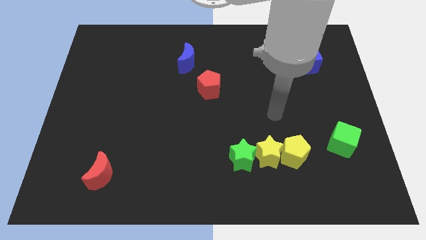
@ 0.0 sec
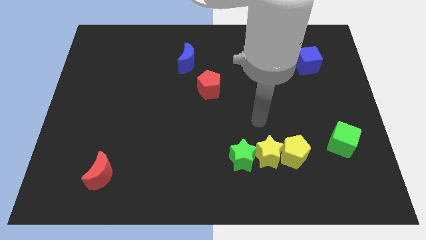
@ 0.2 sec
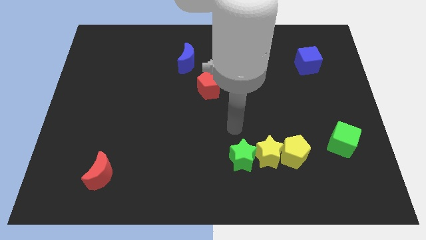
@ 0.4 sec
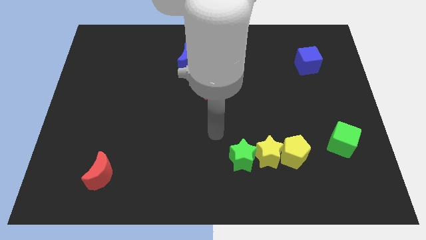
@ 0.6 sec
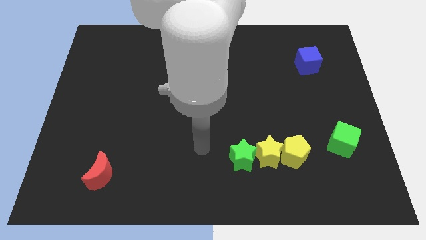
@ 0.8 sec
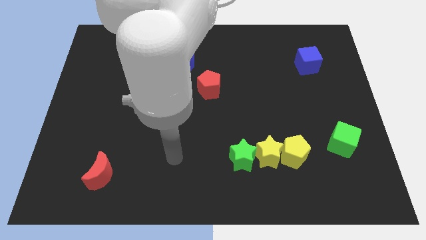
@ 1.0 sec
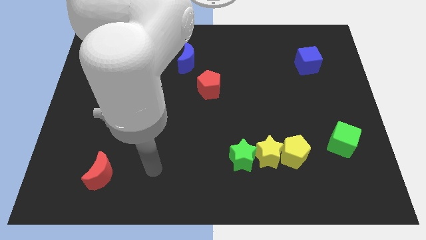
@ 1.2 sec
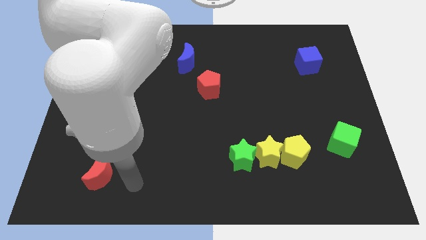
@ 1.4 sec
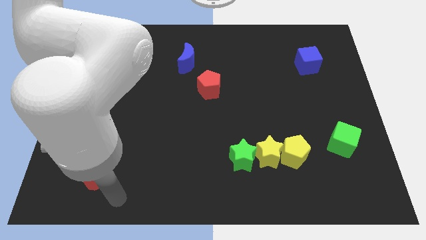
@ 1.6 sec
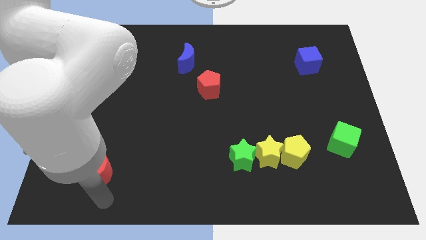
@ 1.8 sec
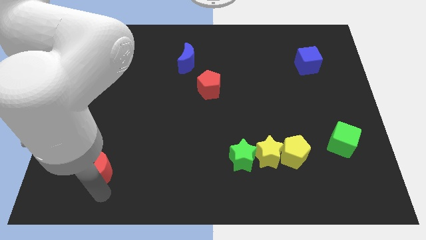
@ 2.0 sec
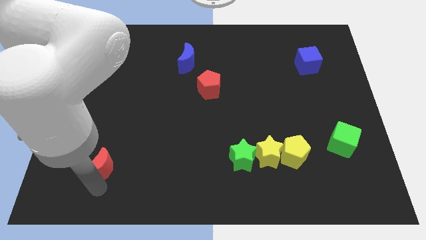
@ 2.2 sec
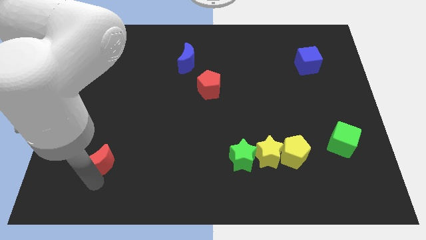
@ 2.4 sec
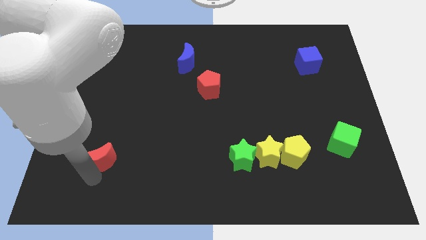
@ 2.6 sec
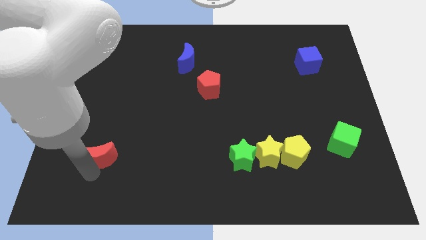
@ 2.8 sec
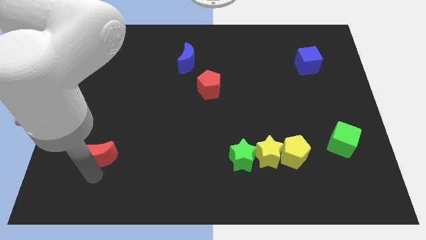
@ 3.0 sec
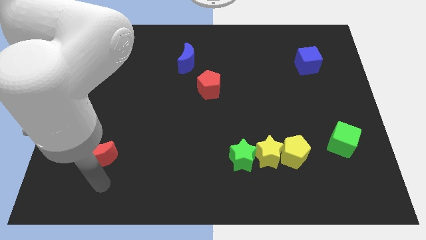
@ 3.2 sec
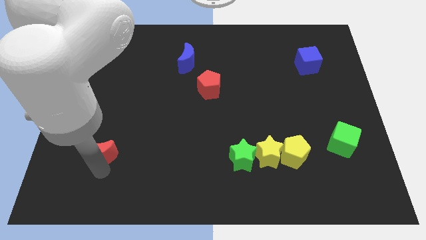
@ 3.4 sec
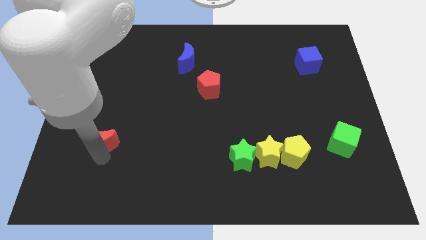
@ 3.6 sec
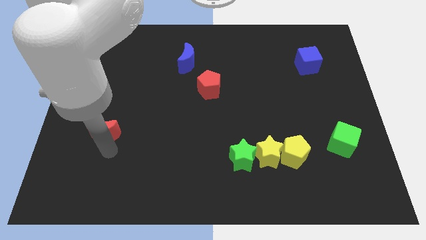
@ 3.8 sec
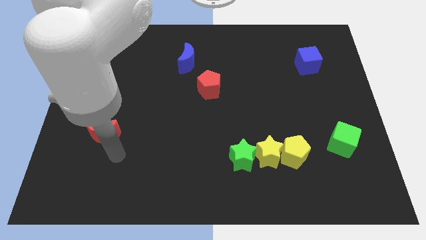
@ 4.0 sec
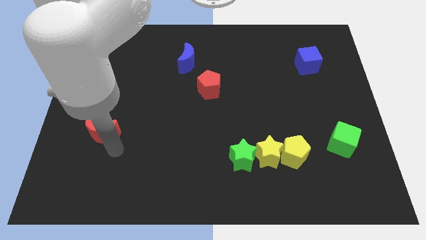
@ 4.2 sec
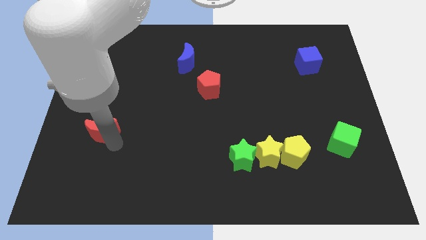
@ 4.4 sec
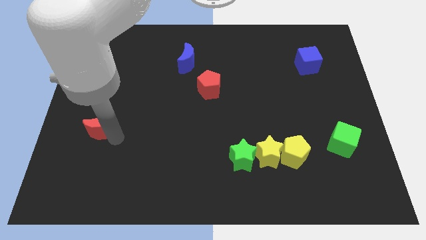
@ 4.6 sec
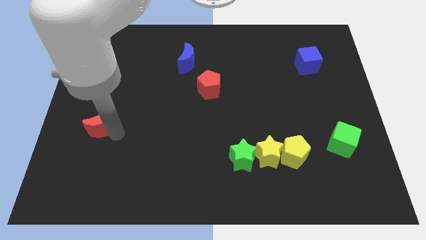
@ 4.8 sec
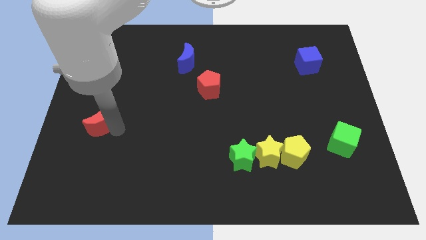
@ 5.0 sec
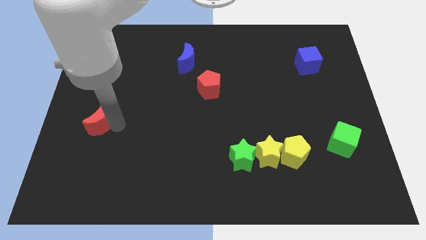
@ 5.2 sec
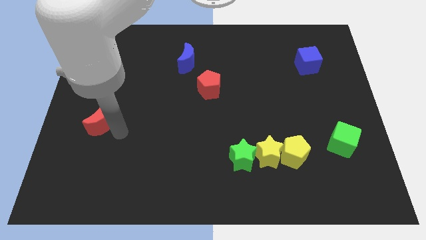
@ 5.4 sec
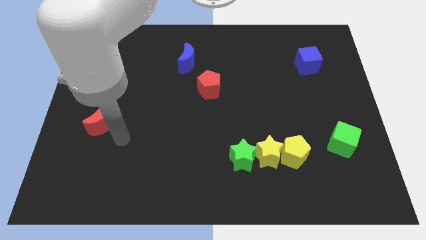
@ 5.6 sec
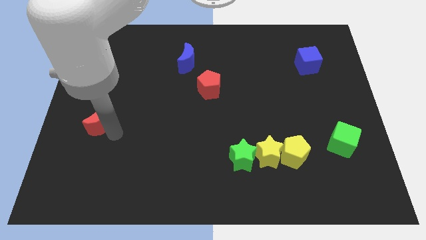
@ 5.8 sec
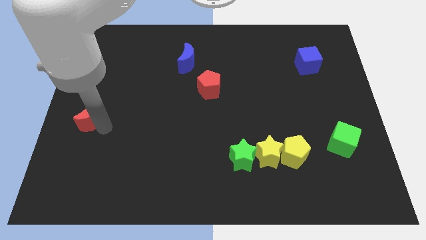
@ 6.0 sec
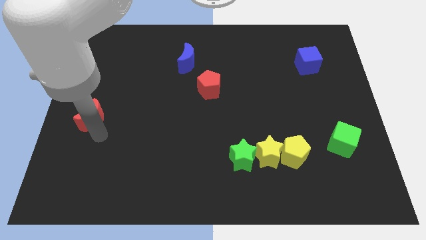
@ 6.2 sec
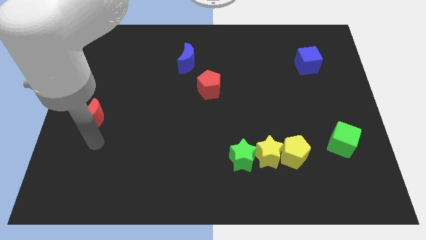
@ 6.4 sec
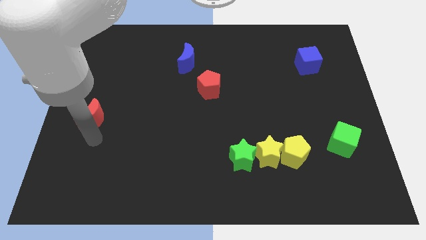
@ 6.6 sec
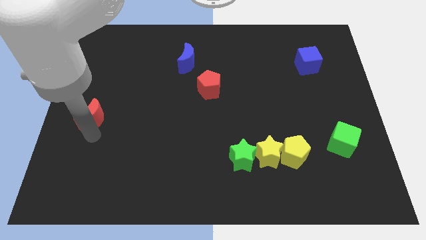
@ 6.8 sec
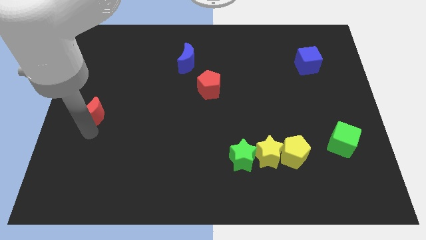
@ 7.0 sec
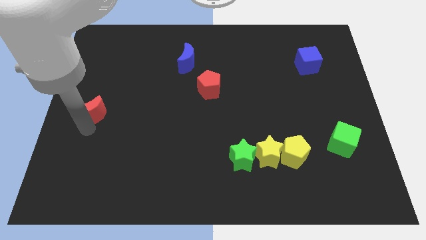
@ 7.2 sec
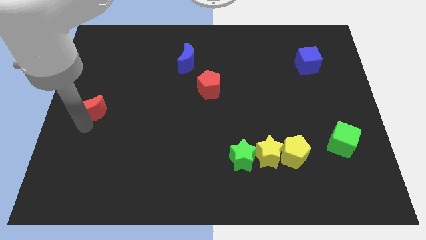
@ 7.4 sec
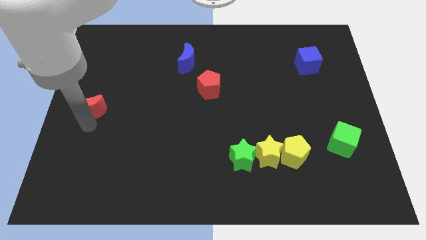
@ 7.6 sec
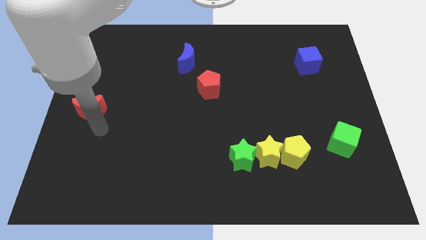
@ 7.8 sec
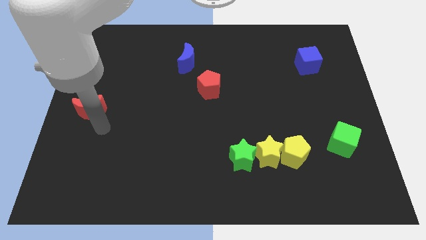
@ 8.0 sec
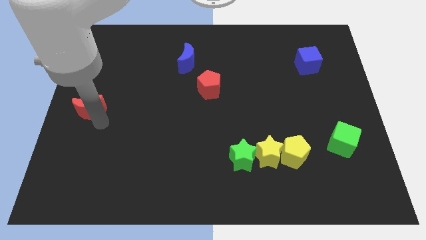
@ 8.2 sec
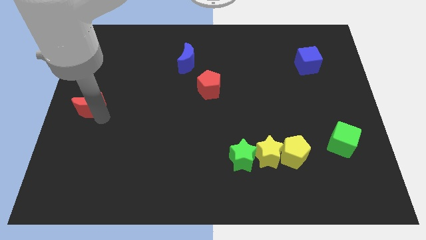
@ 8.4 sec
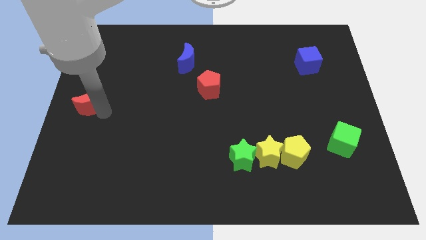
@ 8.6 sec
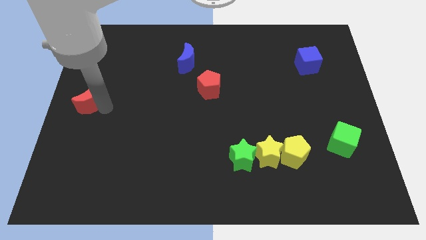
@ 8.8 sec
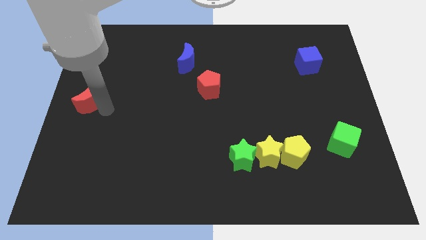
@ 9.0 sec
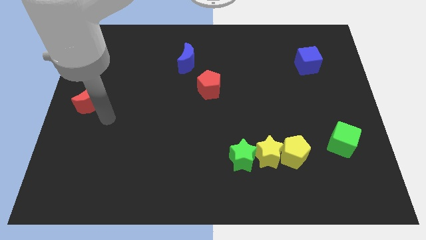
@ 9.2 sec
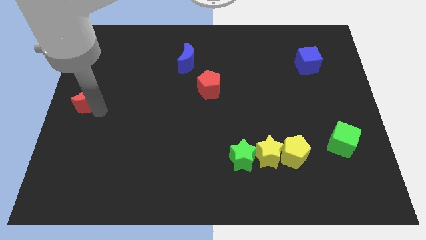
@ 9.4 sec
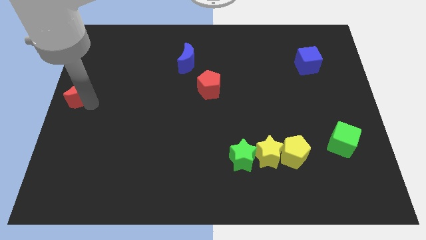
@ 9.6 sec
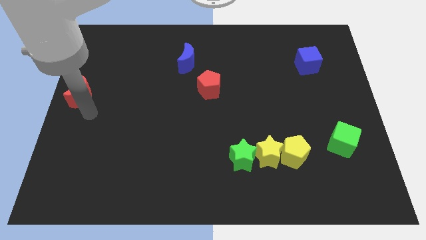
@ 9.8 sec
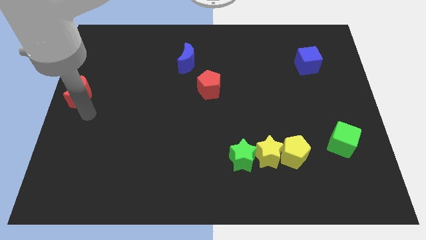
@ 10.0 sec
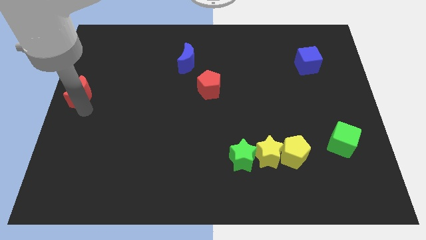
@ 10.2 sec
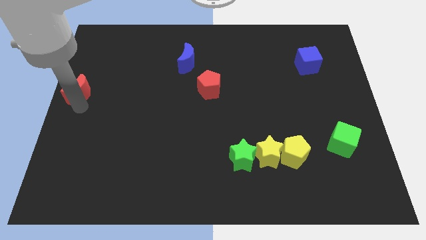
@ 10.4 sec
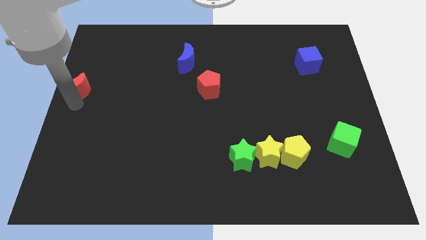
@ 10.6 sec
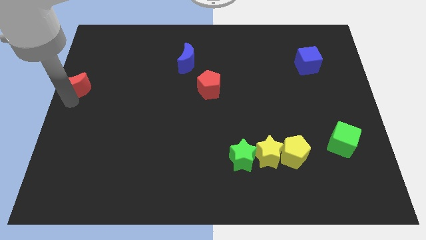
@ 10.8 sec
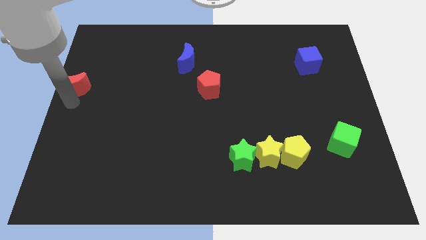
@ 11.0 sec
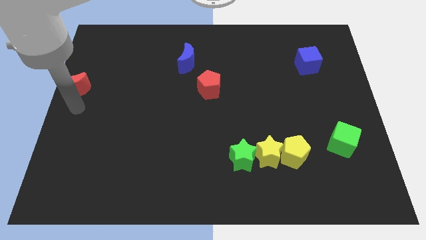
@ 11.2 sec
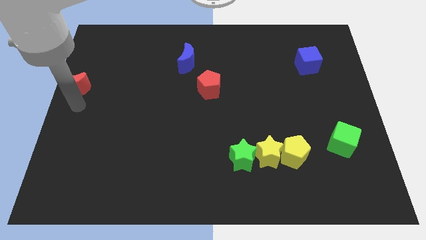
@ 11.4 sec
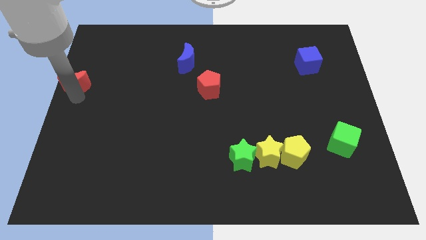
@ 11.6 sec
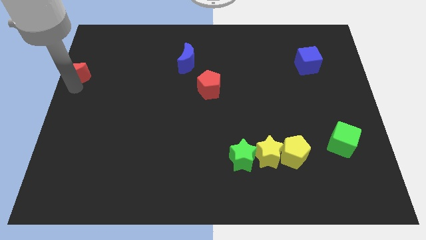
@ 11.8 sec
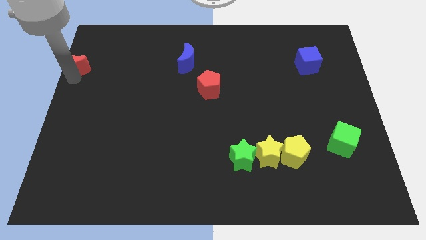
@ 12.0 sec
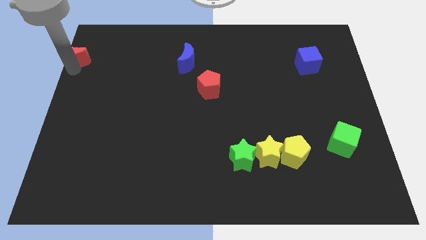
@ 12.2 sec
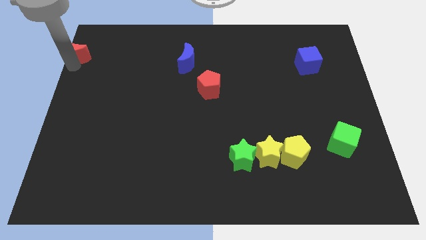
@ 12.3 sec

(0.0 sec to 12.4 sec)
push the red moon to the top left
